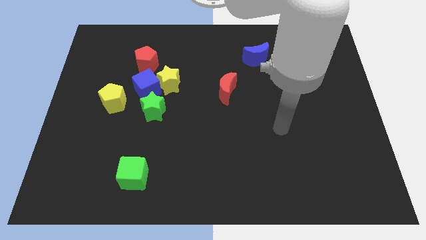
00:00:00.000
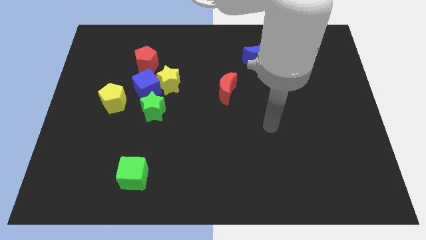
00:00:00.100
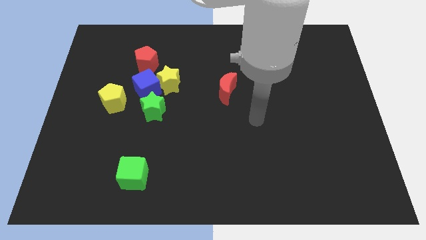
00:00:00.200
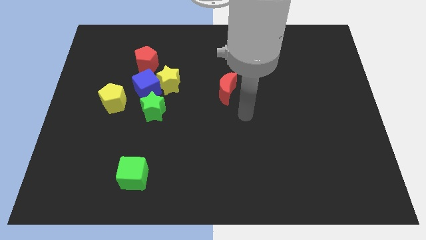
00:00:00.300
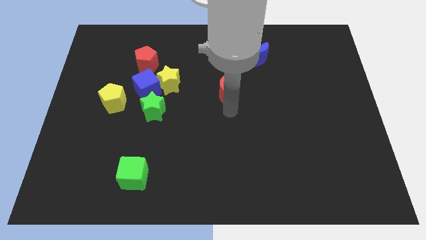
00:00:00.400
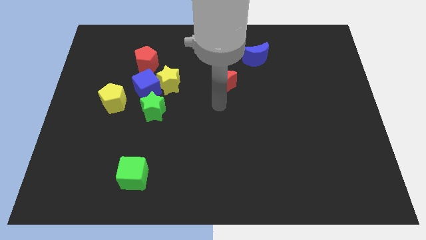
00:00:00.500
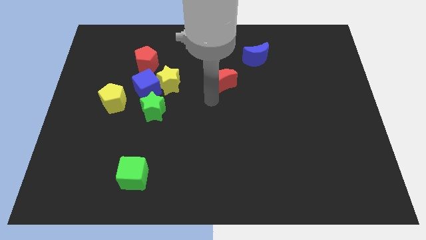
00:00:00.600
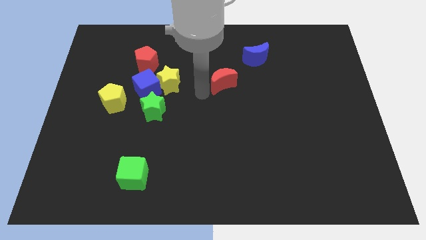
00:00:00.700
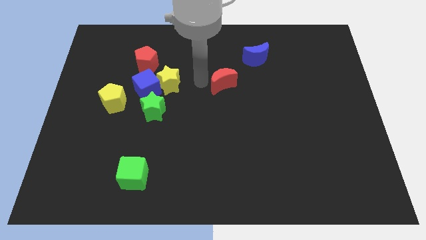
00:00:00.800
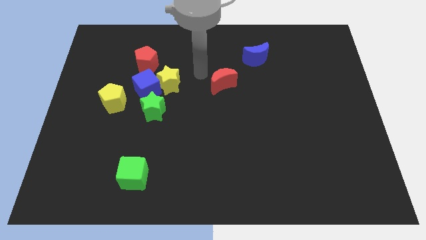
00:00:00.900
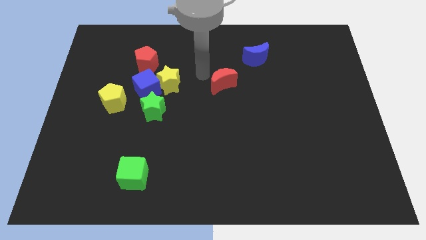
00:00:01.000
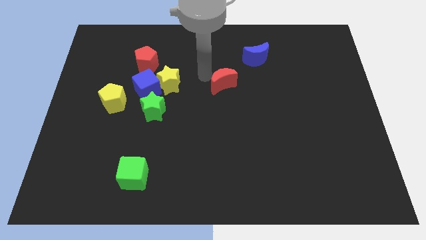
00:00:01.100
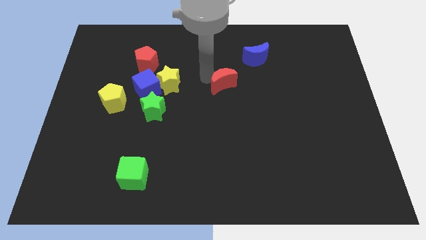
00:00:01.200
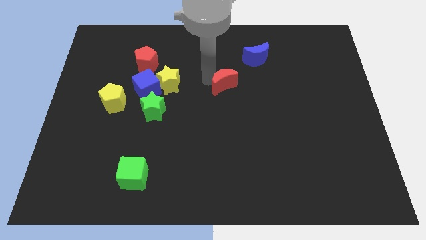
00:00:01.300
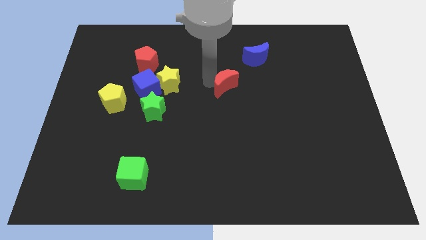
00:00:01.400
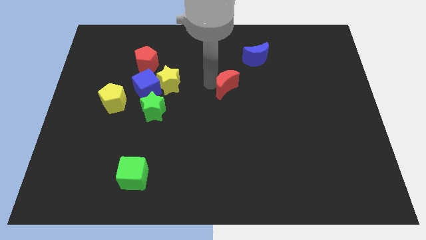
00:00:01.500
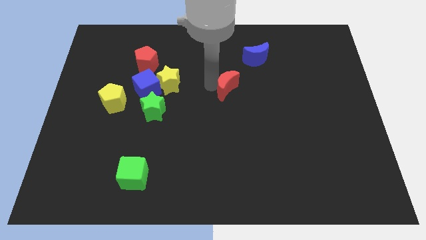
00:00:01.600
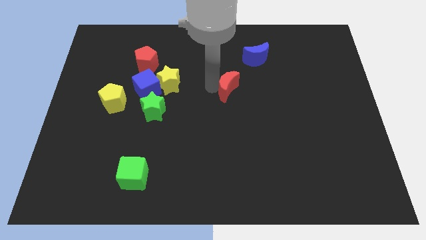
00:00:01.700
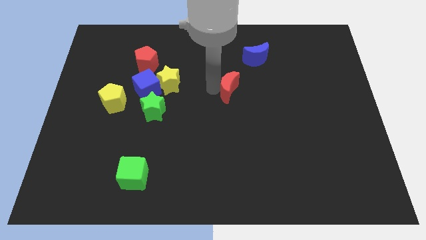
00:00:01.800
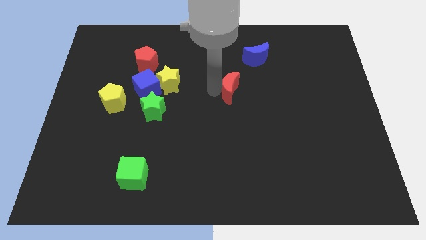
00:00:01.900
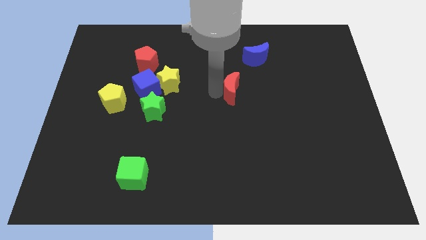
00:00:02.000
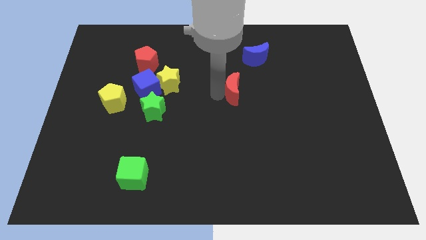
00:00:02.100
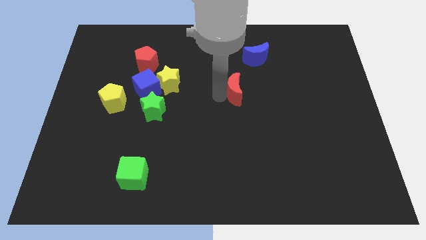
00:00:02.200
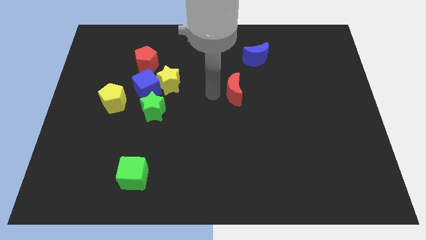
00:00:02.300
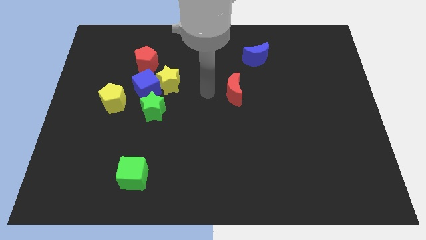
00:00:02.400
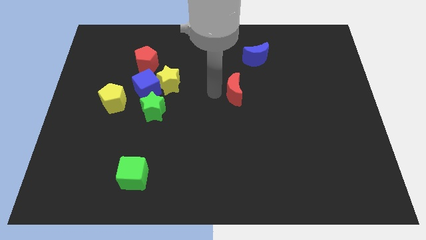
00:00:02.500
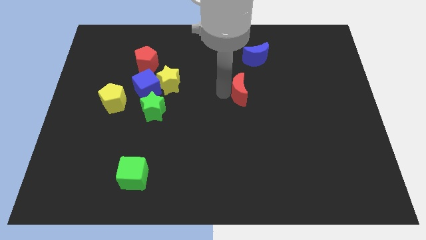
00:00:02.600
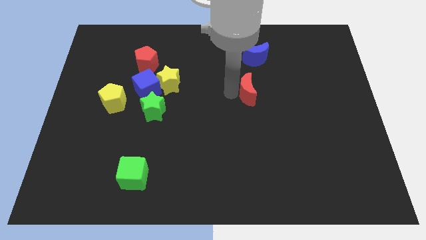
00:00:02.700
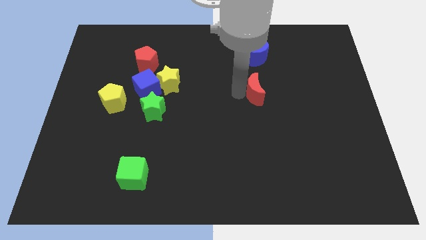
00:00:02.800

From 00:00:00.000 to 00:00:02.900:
move the red moon to the right slightly

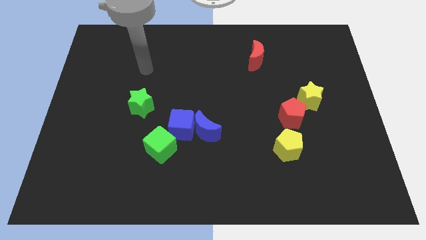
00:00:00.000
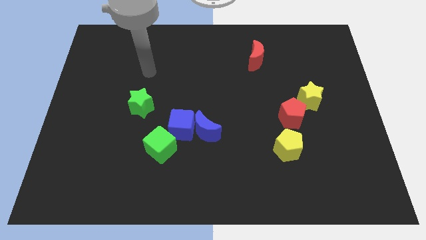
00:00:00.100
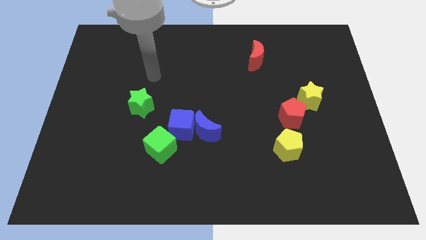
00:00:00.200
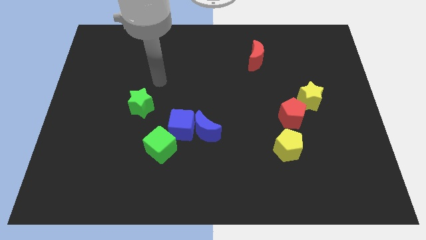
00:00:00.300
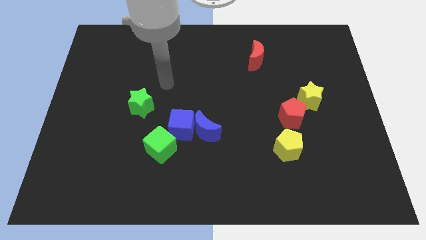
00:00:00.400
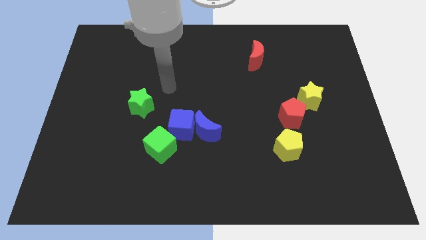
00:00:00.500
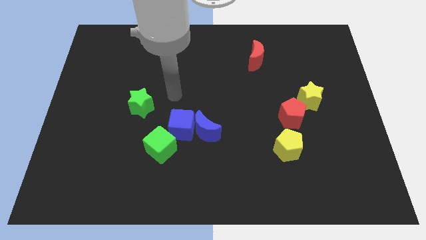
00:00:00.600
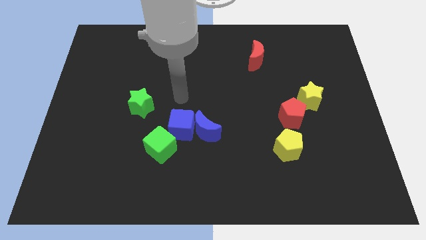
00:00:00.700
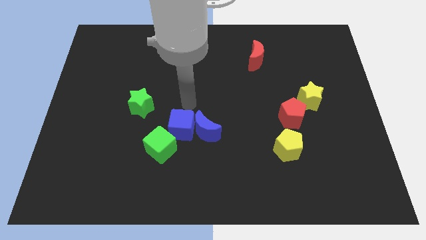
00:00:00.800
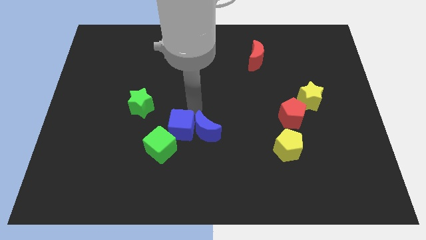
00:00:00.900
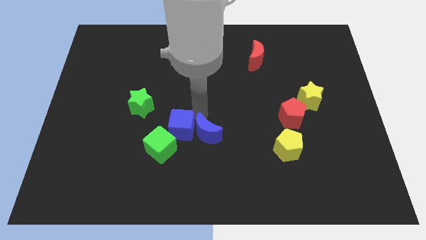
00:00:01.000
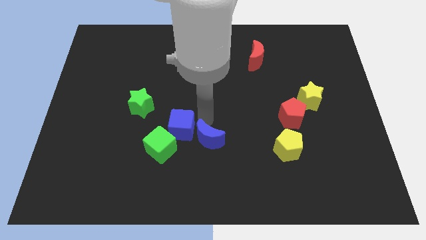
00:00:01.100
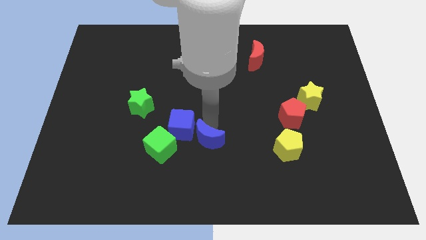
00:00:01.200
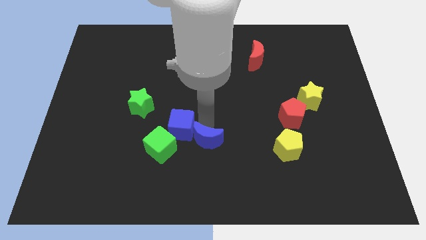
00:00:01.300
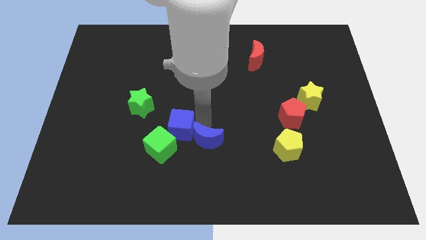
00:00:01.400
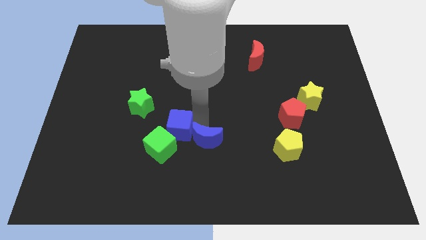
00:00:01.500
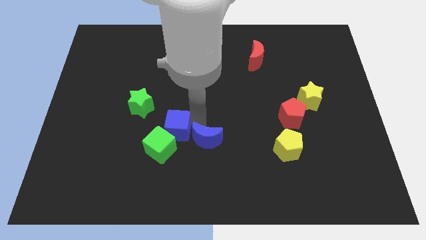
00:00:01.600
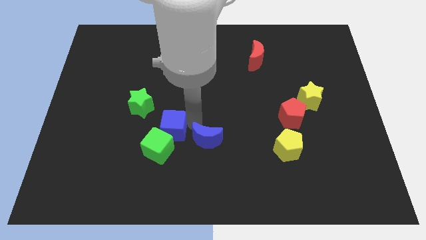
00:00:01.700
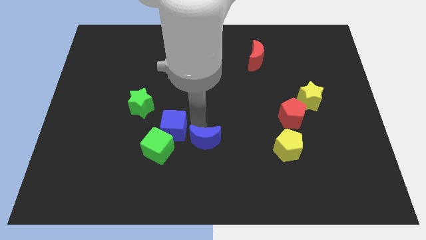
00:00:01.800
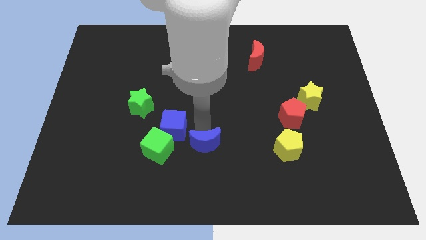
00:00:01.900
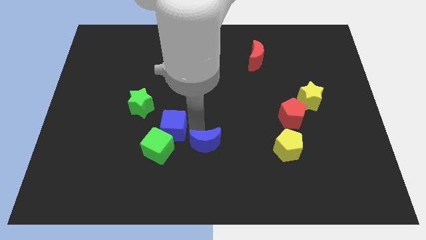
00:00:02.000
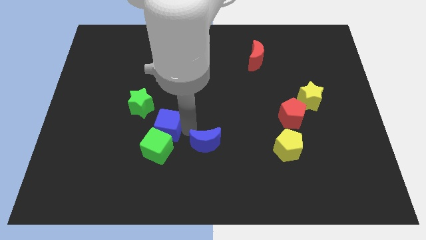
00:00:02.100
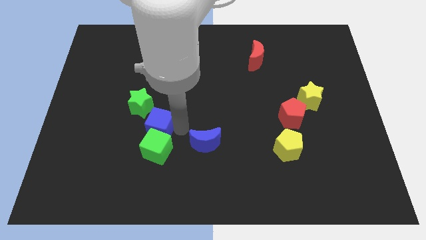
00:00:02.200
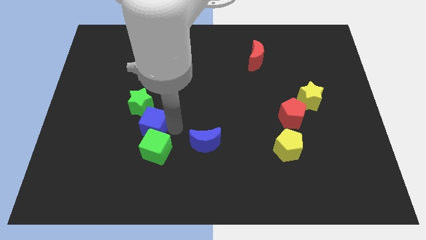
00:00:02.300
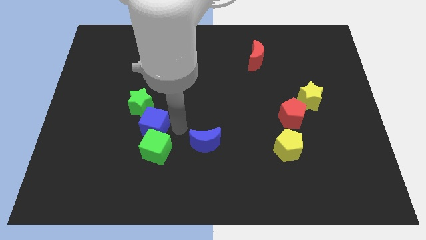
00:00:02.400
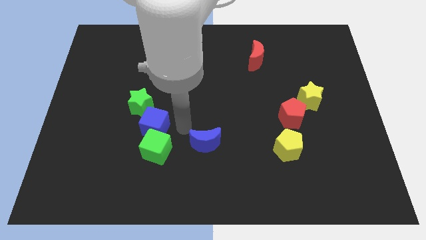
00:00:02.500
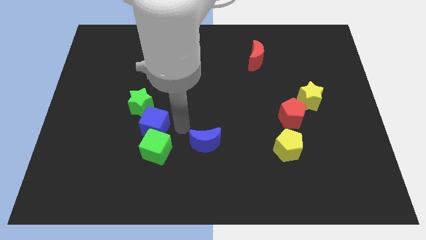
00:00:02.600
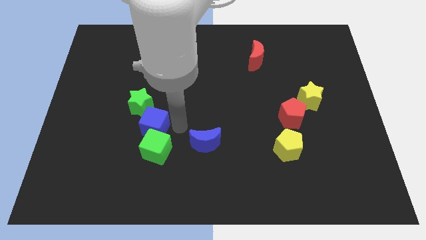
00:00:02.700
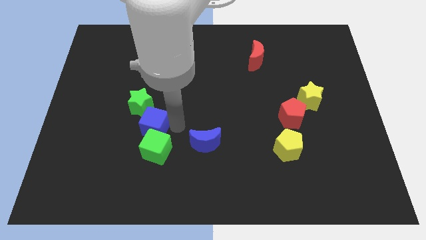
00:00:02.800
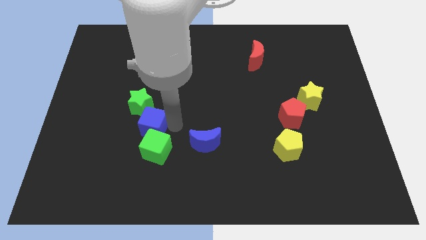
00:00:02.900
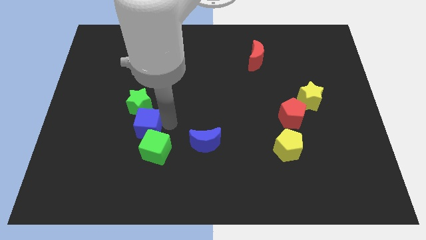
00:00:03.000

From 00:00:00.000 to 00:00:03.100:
slide the blue cube to the left a little

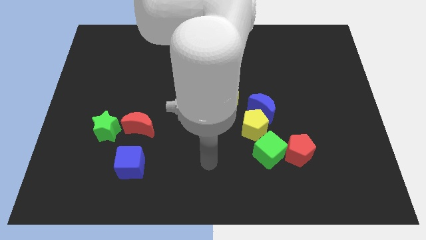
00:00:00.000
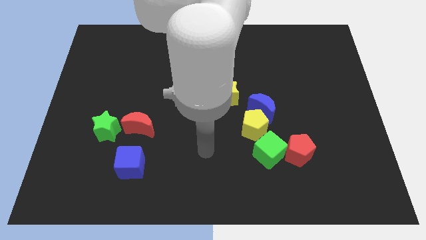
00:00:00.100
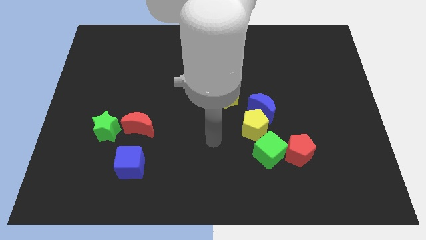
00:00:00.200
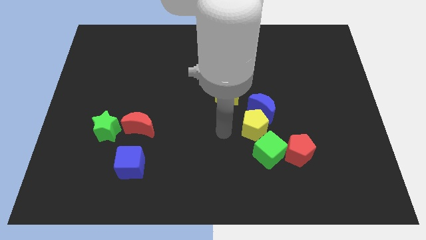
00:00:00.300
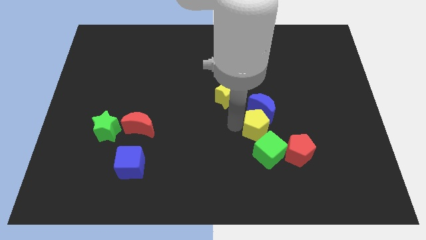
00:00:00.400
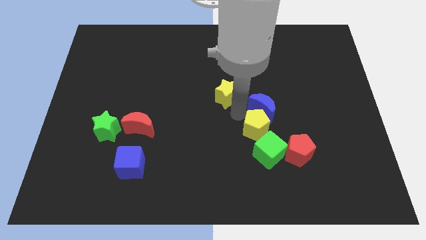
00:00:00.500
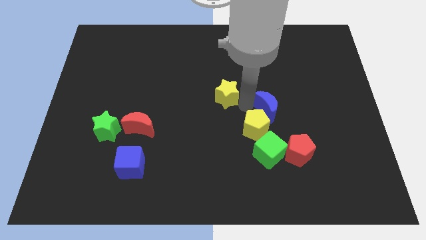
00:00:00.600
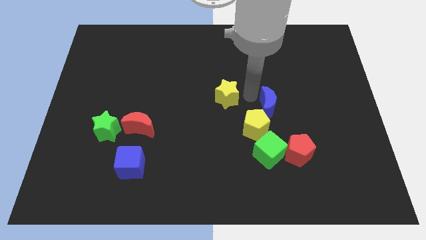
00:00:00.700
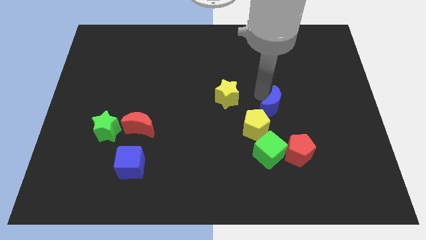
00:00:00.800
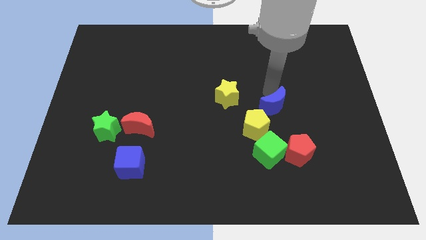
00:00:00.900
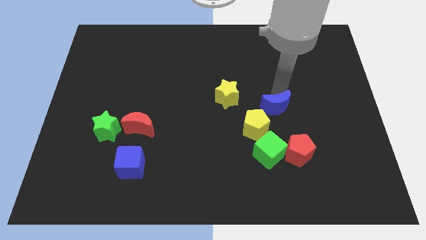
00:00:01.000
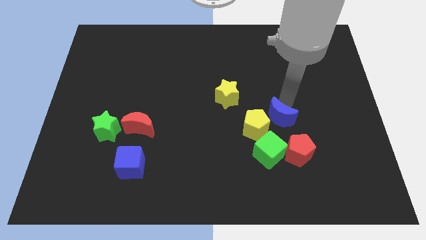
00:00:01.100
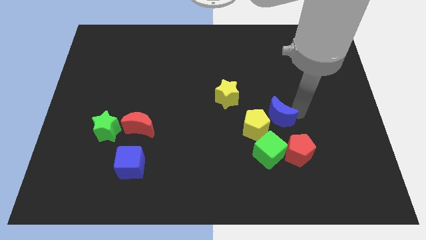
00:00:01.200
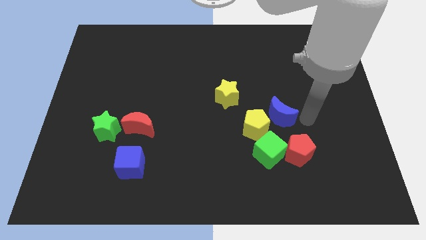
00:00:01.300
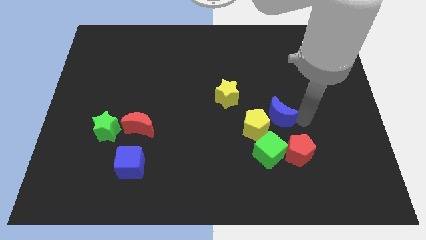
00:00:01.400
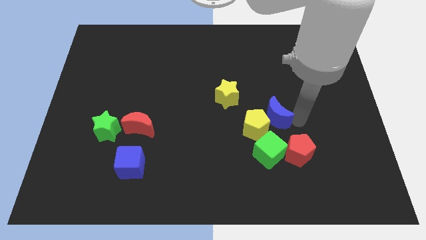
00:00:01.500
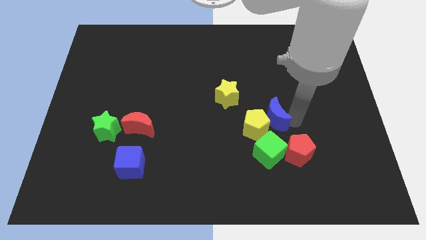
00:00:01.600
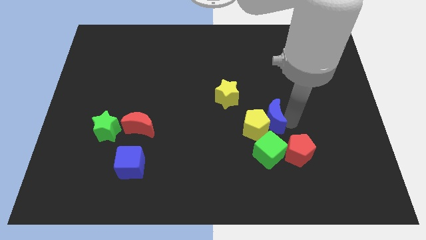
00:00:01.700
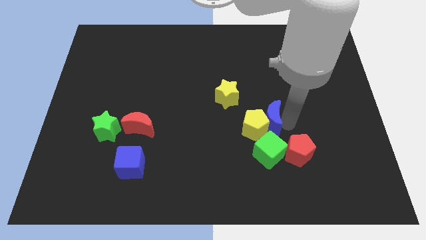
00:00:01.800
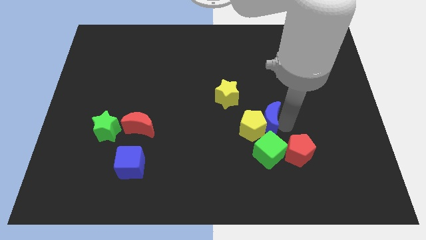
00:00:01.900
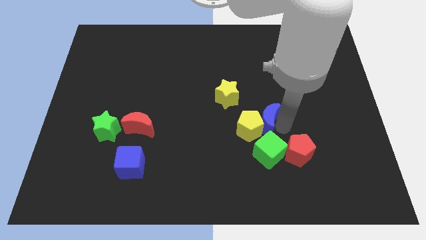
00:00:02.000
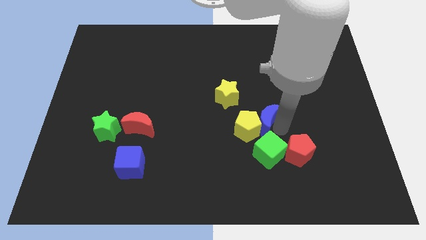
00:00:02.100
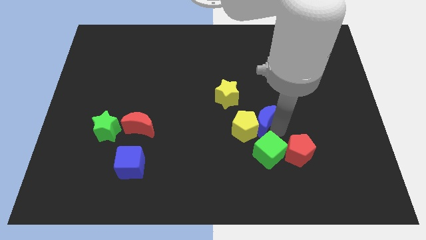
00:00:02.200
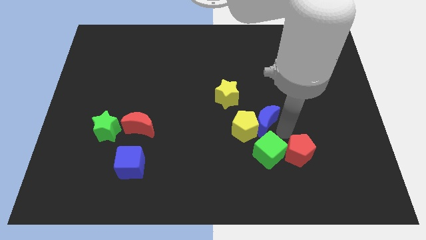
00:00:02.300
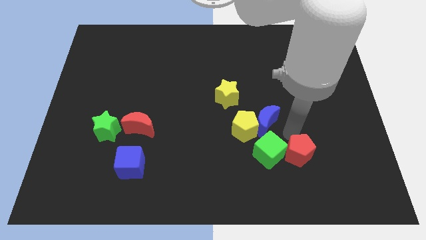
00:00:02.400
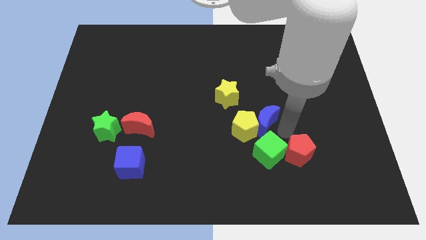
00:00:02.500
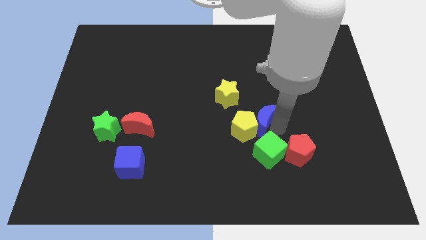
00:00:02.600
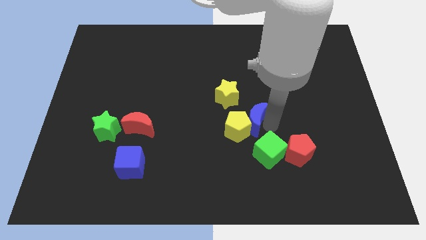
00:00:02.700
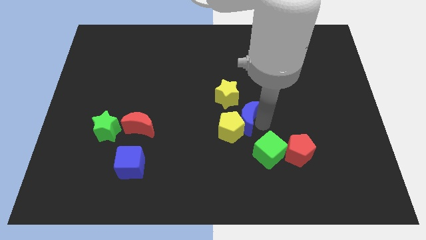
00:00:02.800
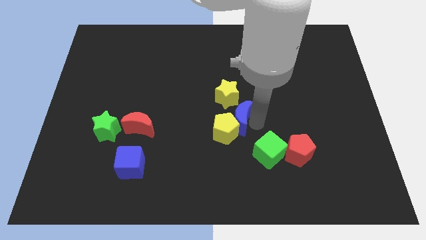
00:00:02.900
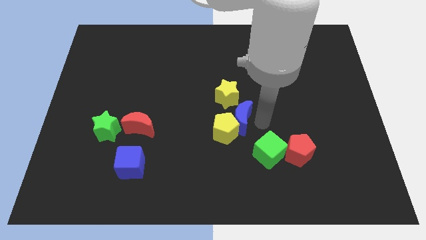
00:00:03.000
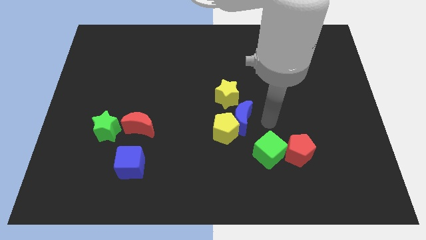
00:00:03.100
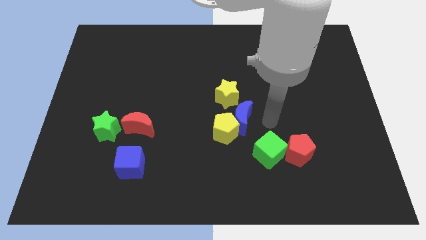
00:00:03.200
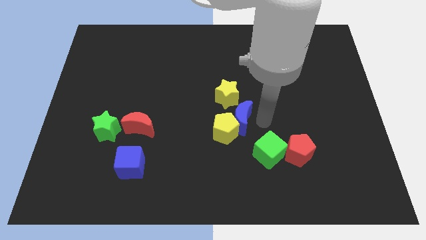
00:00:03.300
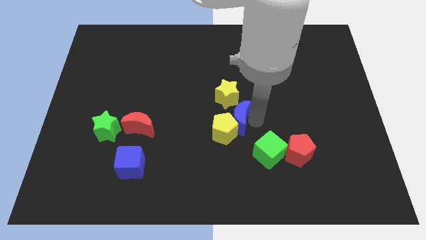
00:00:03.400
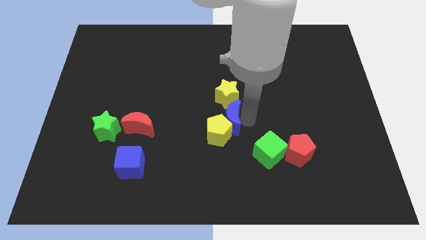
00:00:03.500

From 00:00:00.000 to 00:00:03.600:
move the blue moon left a little bit
